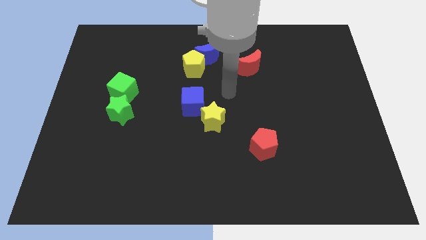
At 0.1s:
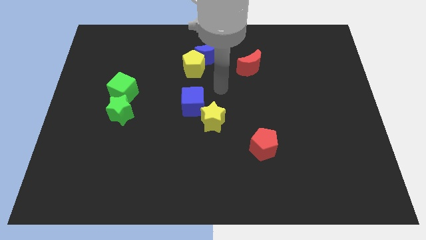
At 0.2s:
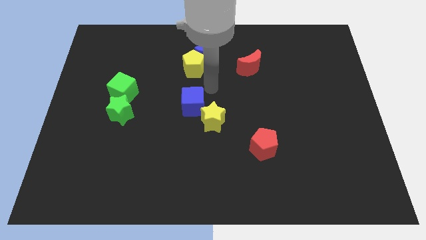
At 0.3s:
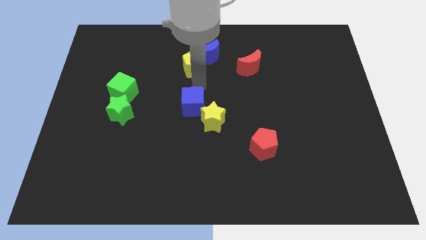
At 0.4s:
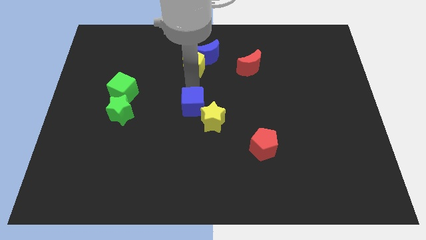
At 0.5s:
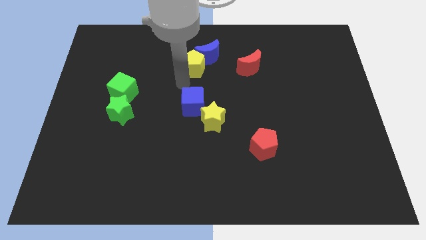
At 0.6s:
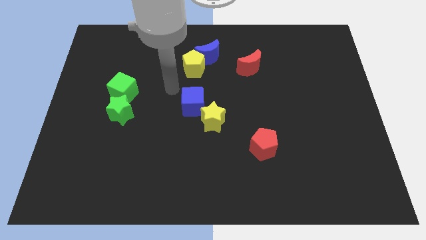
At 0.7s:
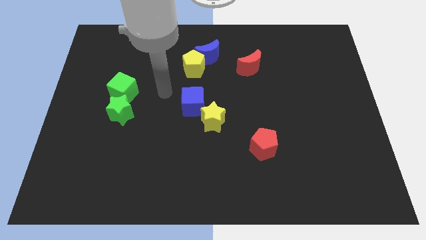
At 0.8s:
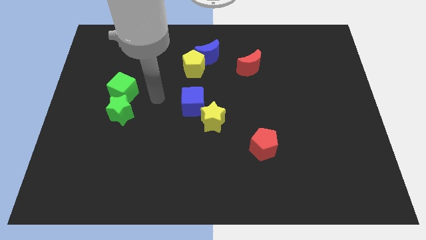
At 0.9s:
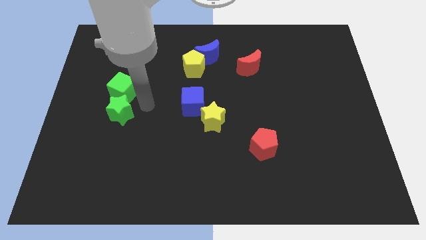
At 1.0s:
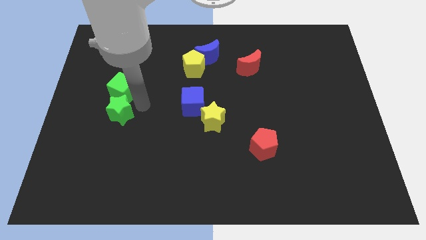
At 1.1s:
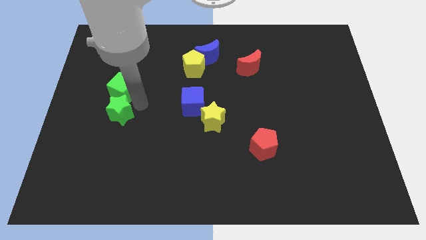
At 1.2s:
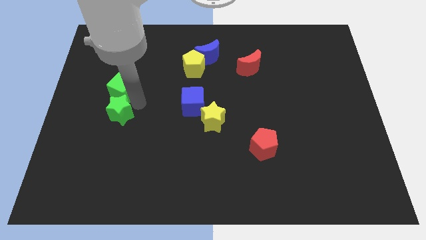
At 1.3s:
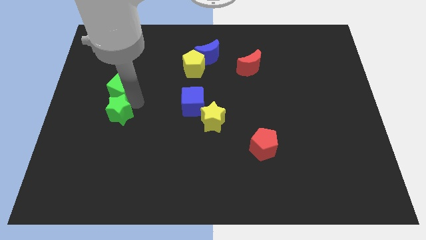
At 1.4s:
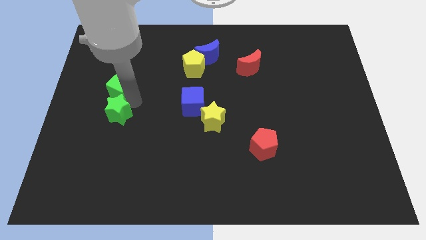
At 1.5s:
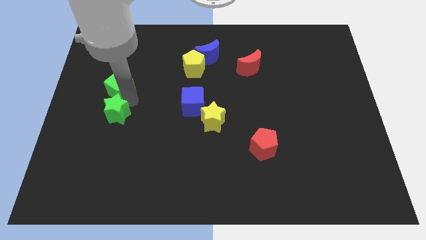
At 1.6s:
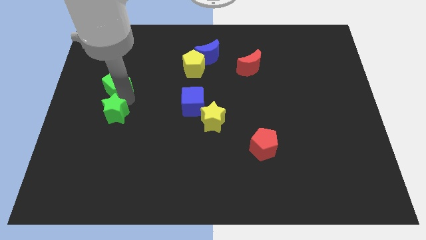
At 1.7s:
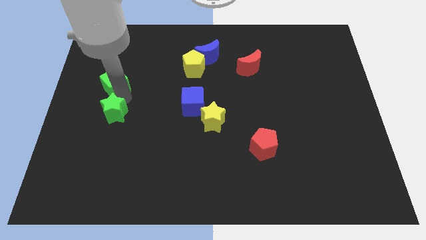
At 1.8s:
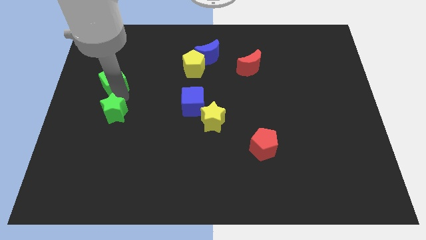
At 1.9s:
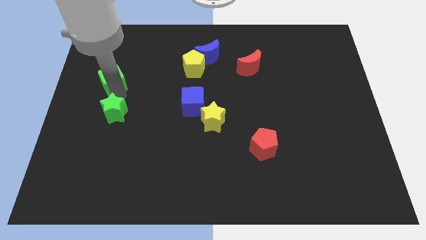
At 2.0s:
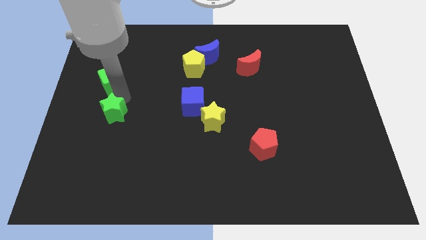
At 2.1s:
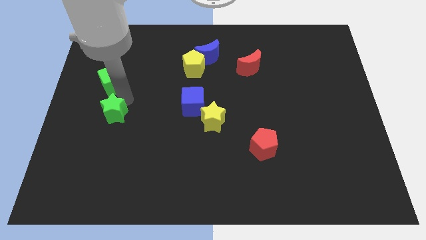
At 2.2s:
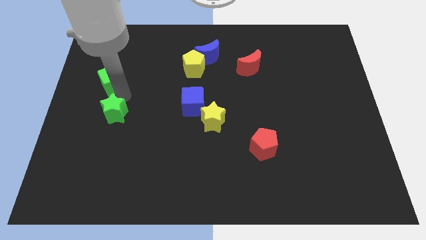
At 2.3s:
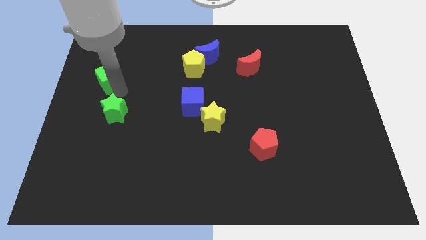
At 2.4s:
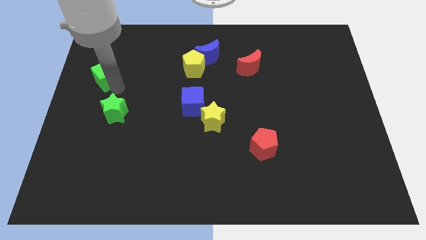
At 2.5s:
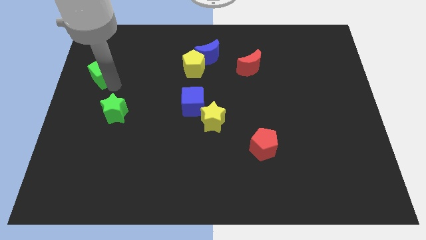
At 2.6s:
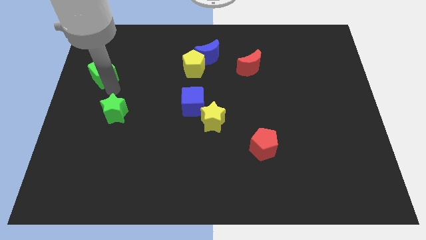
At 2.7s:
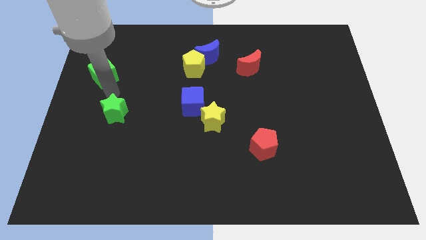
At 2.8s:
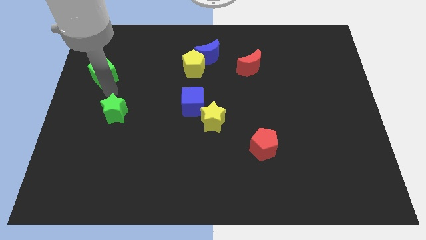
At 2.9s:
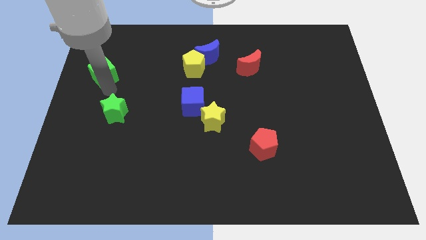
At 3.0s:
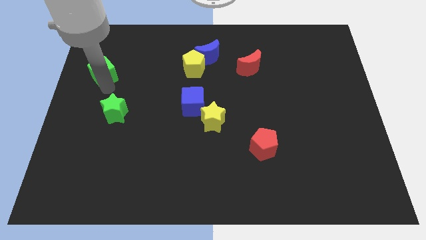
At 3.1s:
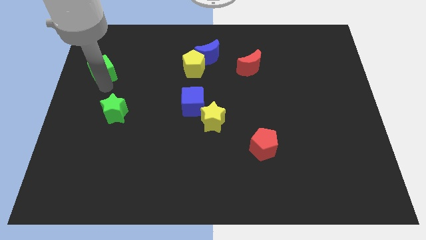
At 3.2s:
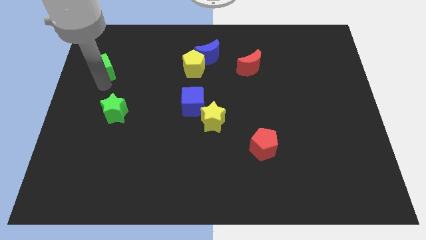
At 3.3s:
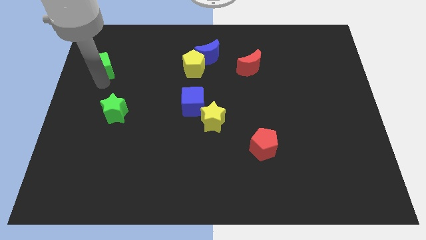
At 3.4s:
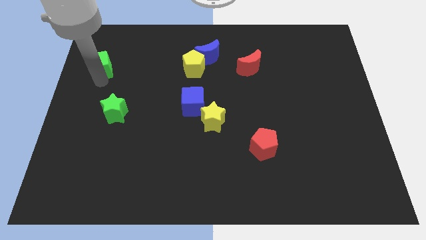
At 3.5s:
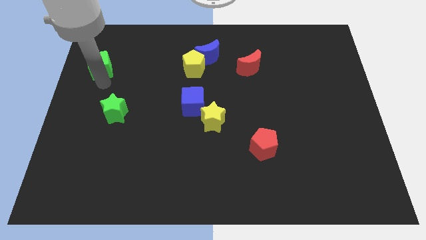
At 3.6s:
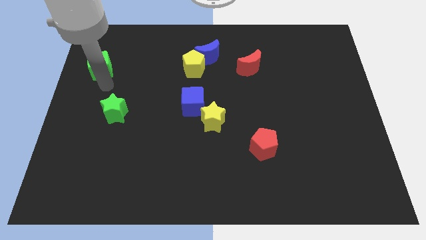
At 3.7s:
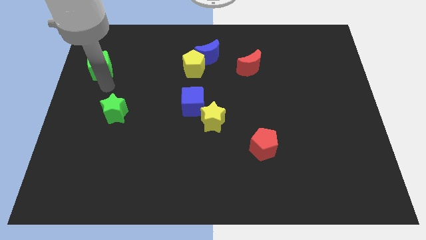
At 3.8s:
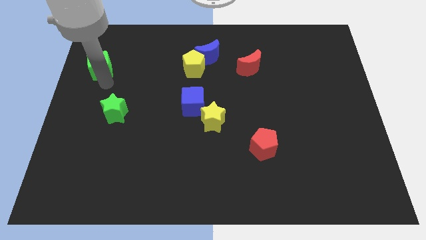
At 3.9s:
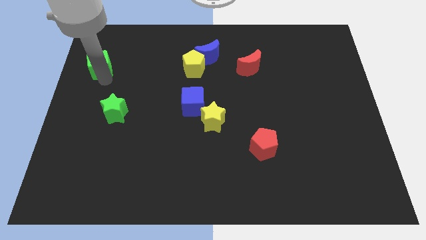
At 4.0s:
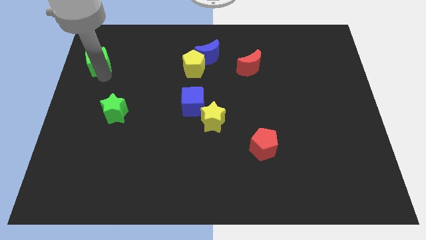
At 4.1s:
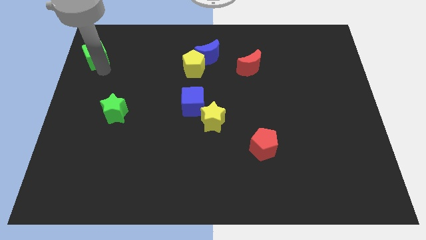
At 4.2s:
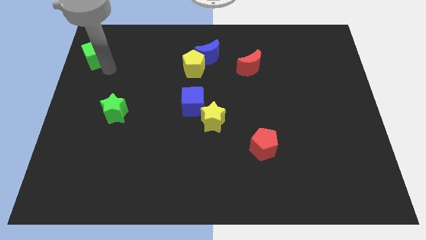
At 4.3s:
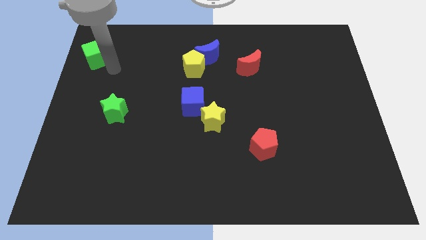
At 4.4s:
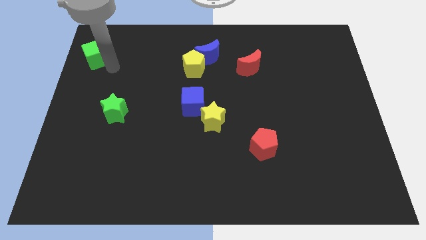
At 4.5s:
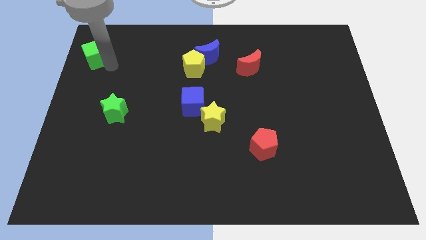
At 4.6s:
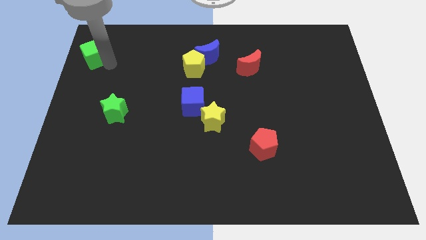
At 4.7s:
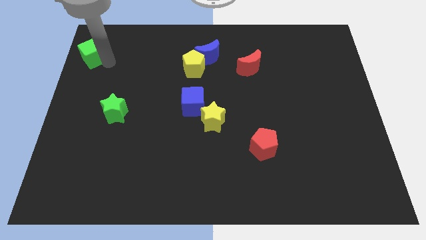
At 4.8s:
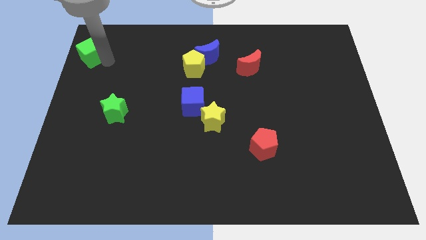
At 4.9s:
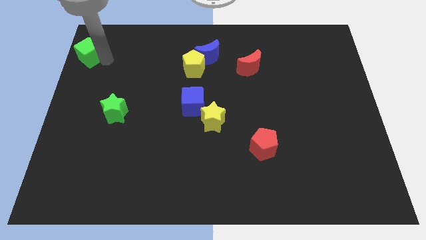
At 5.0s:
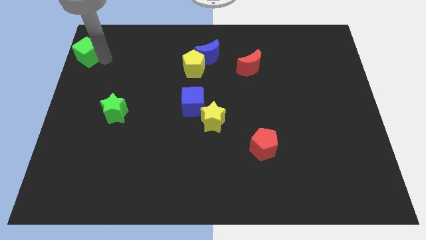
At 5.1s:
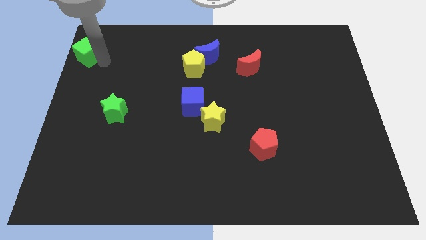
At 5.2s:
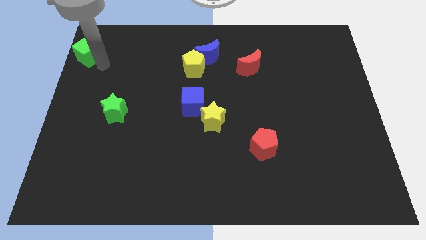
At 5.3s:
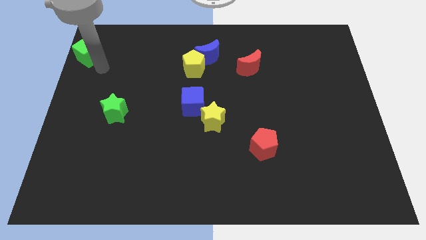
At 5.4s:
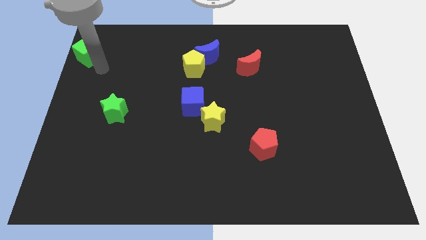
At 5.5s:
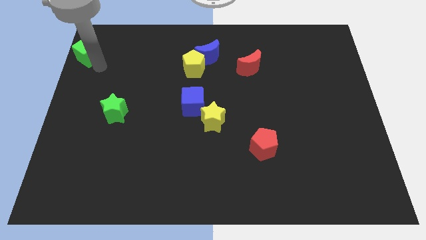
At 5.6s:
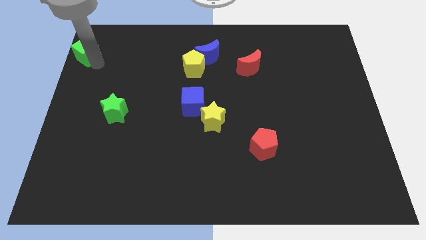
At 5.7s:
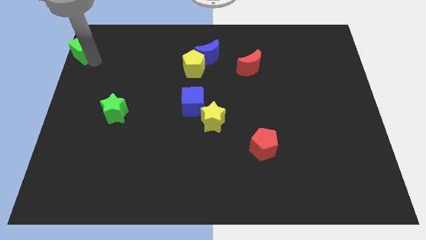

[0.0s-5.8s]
move the green cube to the top left of the board

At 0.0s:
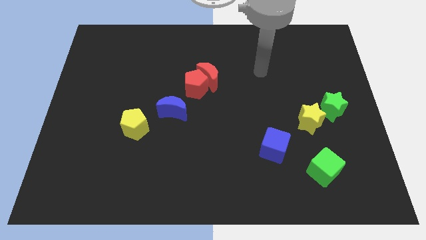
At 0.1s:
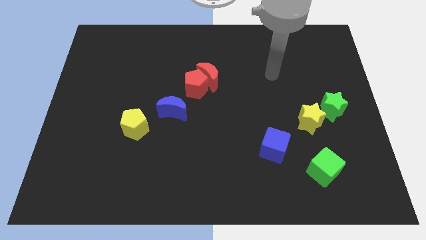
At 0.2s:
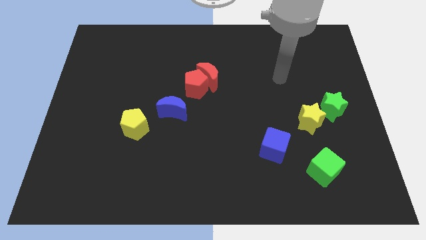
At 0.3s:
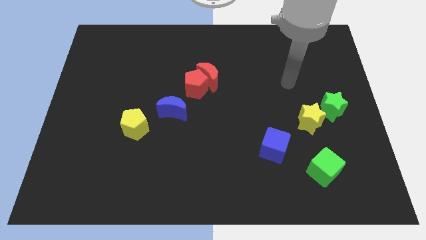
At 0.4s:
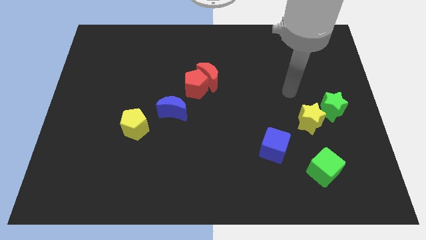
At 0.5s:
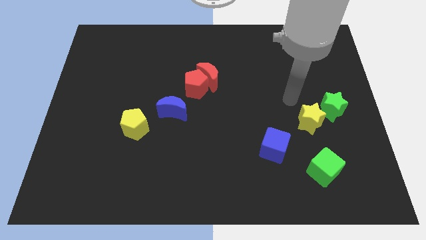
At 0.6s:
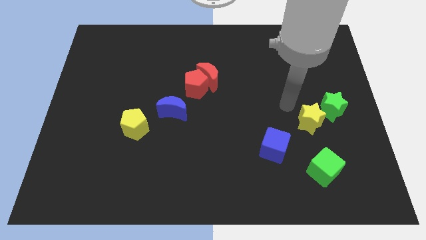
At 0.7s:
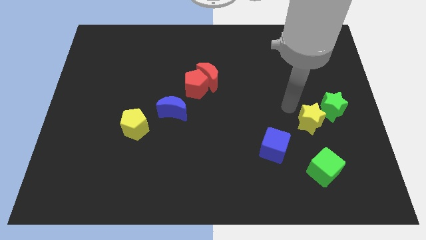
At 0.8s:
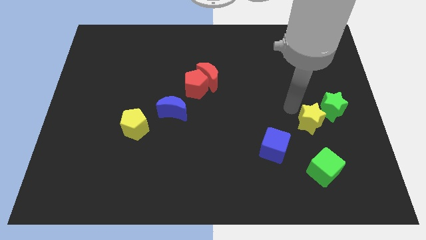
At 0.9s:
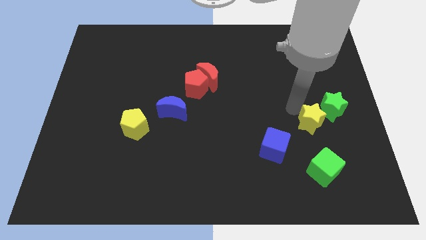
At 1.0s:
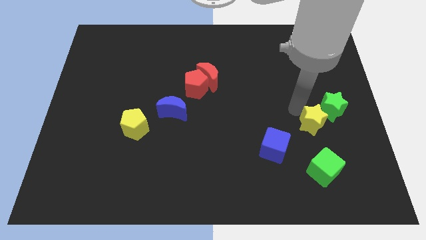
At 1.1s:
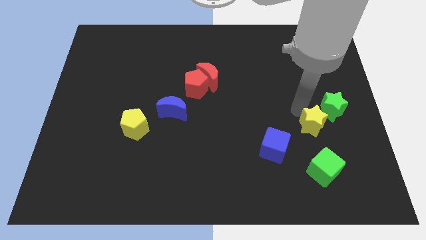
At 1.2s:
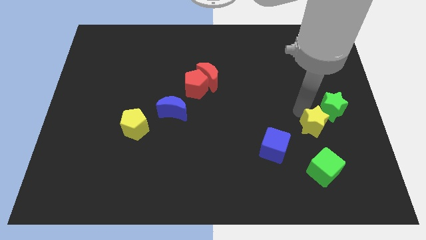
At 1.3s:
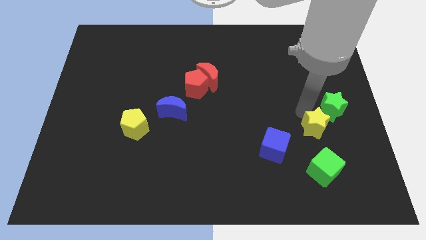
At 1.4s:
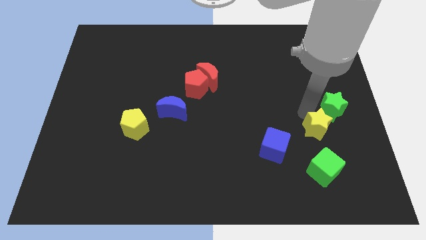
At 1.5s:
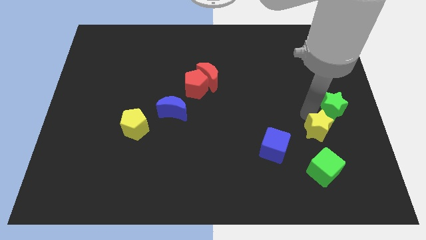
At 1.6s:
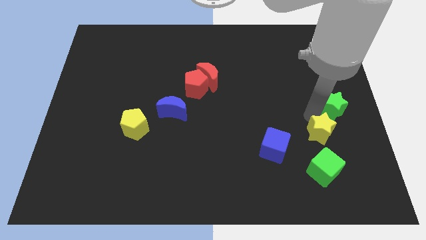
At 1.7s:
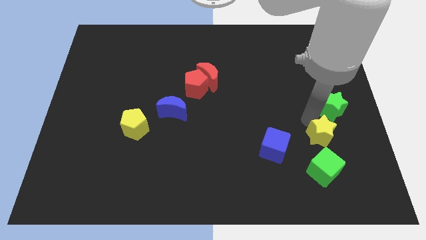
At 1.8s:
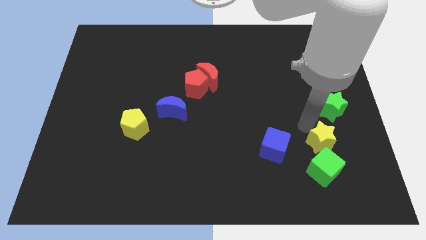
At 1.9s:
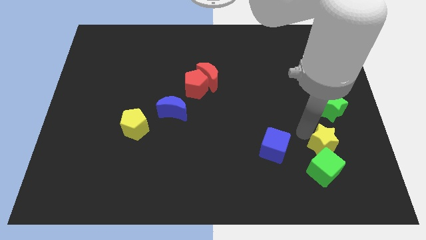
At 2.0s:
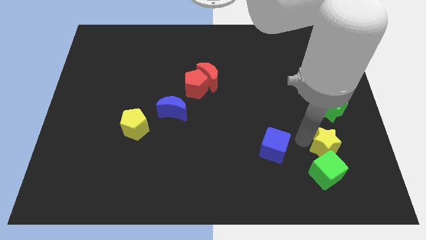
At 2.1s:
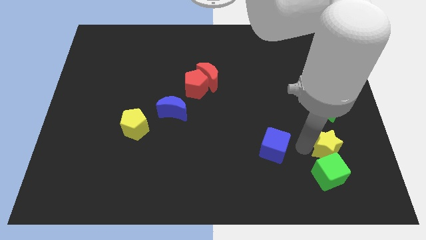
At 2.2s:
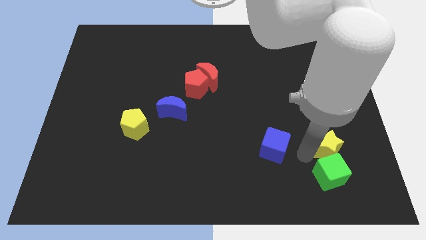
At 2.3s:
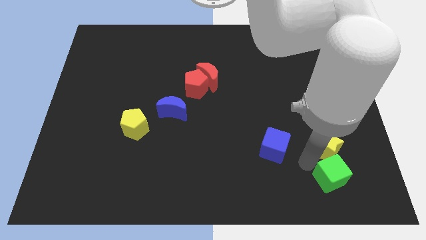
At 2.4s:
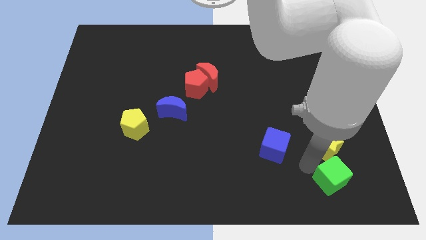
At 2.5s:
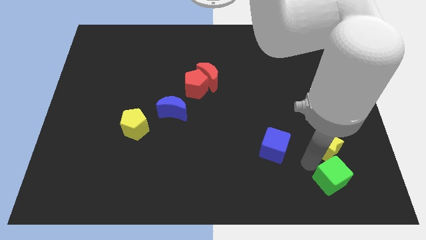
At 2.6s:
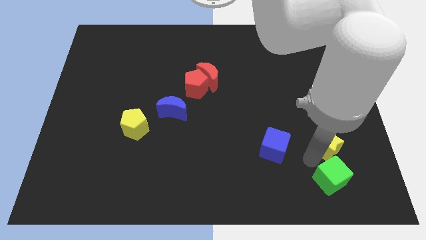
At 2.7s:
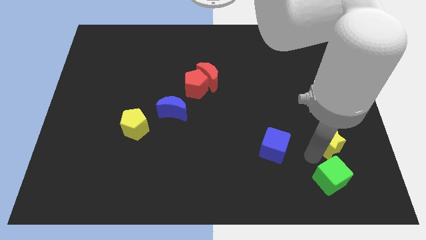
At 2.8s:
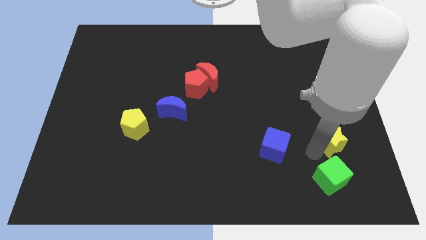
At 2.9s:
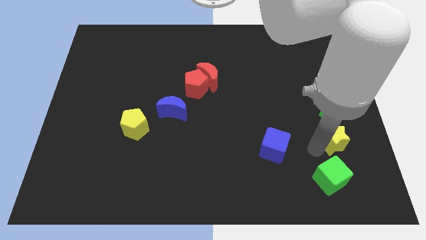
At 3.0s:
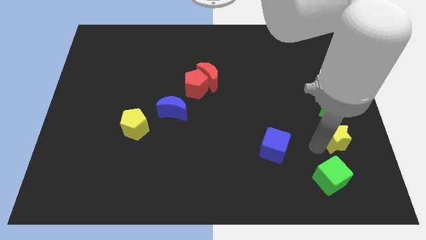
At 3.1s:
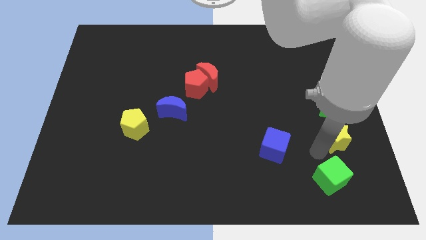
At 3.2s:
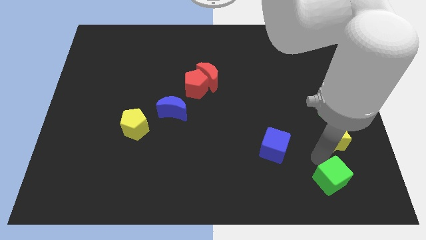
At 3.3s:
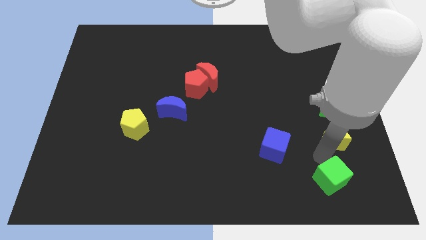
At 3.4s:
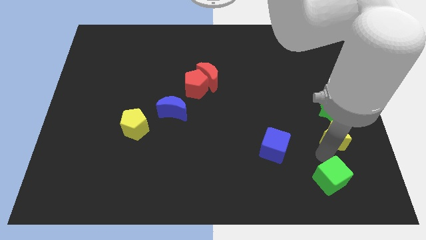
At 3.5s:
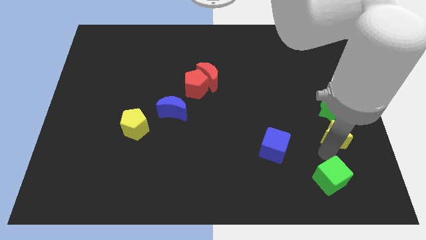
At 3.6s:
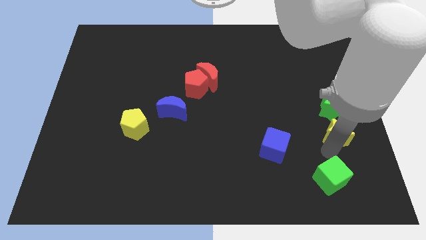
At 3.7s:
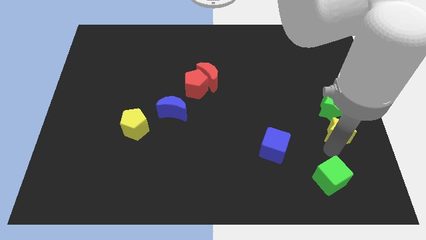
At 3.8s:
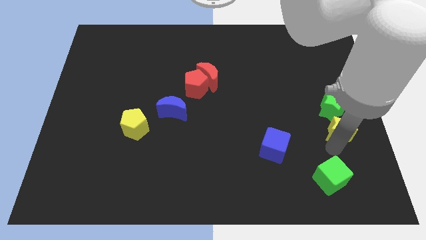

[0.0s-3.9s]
slide the yellow star to the right side
